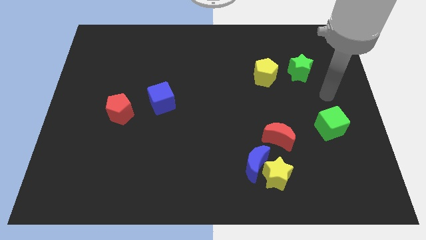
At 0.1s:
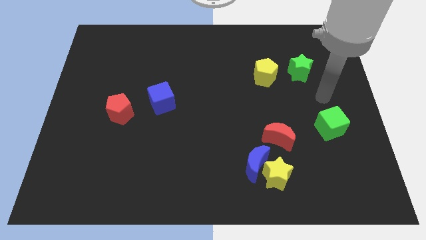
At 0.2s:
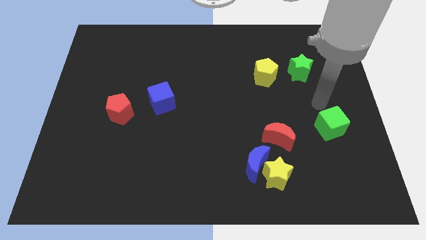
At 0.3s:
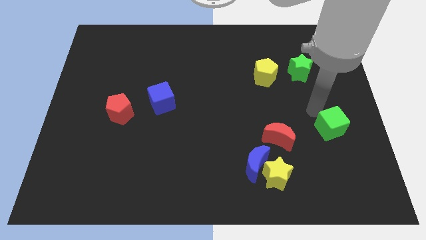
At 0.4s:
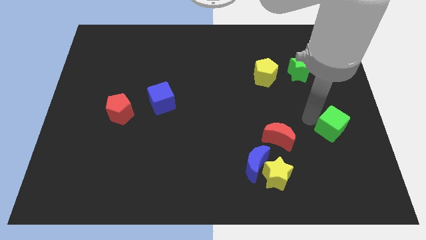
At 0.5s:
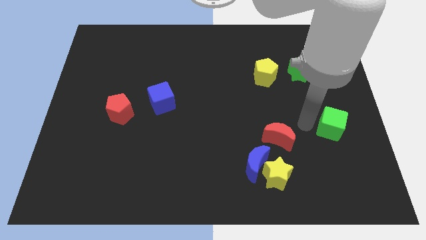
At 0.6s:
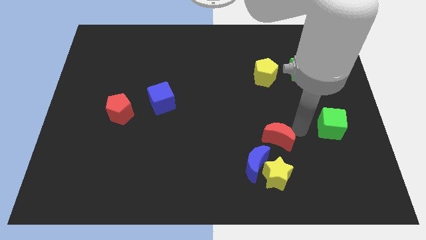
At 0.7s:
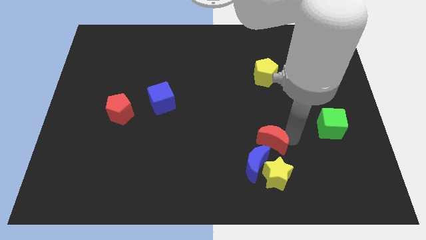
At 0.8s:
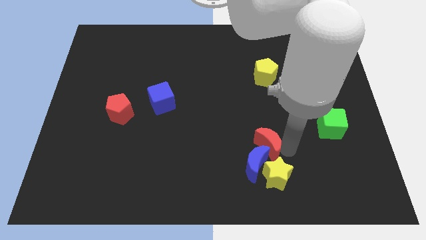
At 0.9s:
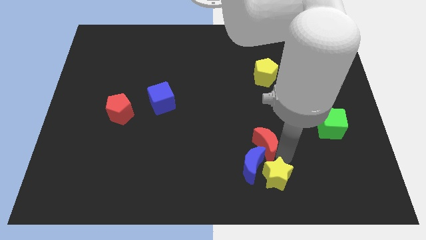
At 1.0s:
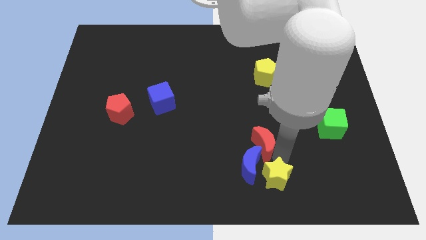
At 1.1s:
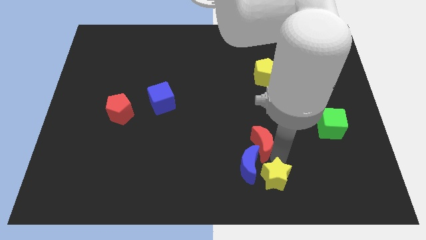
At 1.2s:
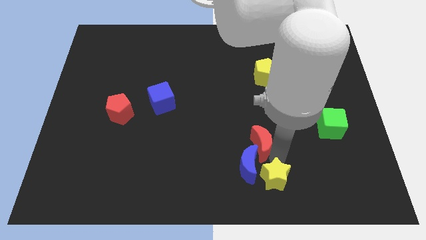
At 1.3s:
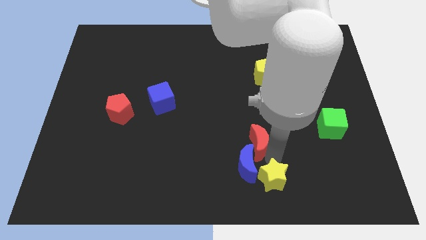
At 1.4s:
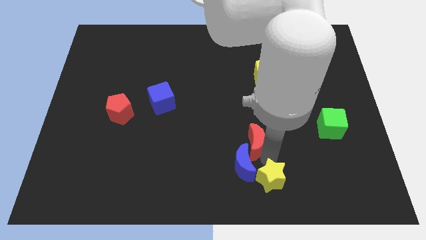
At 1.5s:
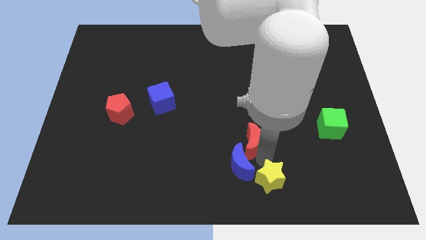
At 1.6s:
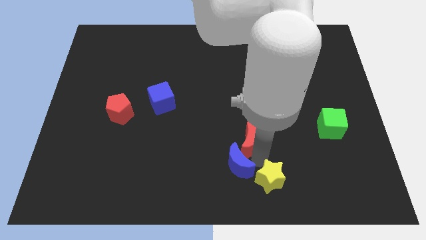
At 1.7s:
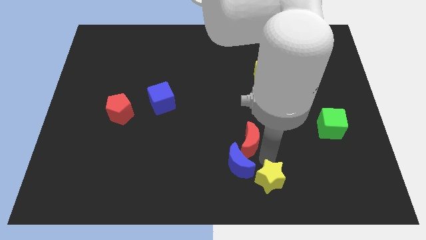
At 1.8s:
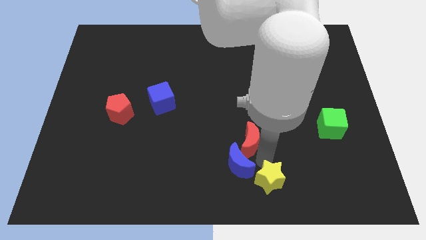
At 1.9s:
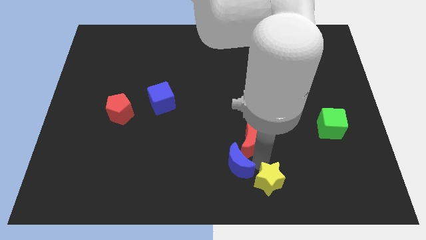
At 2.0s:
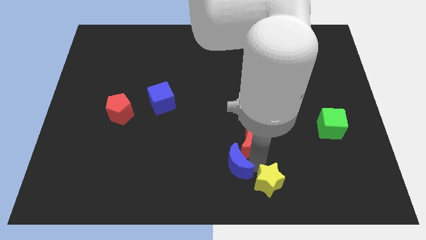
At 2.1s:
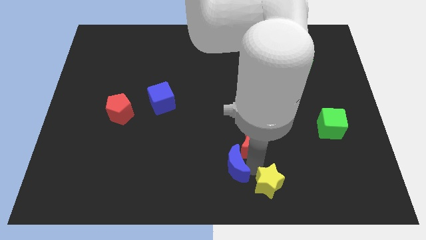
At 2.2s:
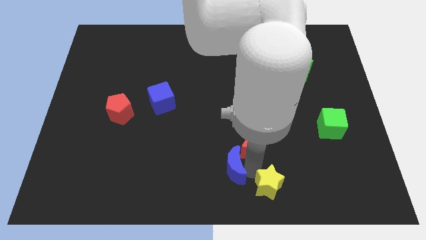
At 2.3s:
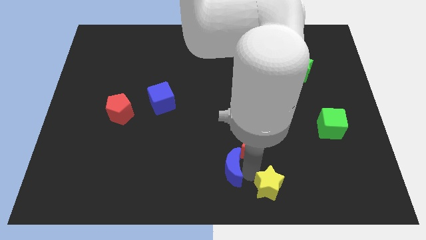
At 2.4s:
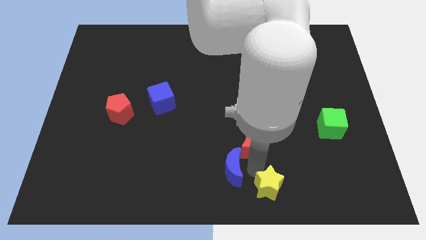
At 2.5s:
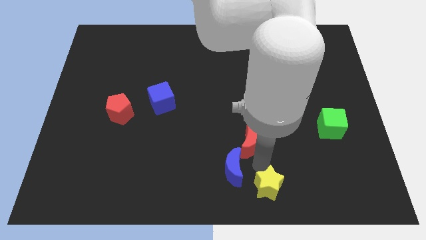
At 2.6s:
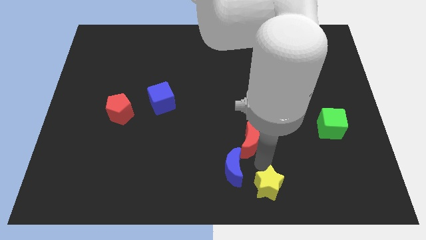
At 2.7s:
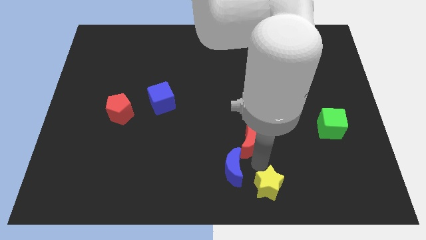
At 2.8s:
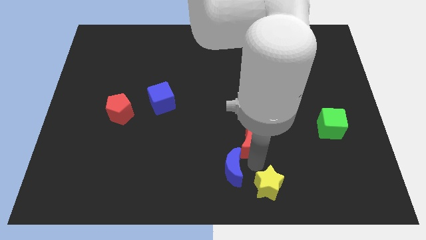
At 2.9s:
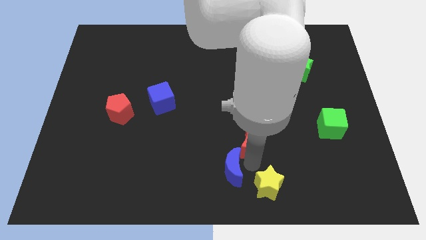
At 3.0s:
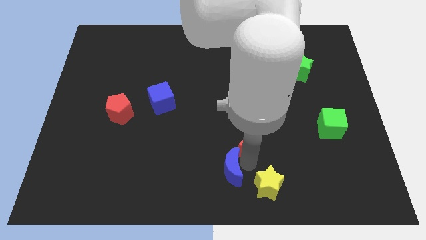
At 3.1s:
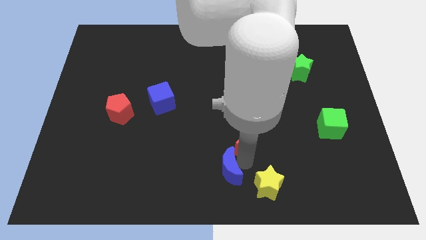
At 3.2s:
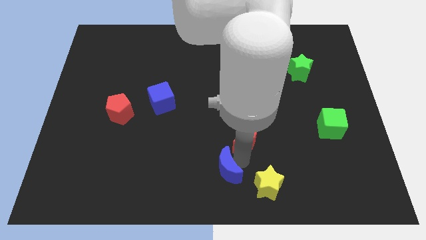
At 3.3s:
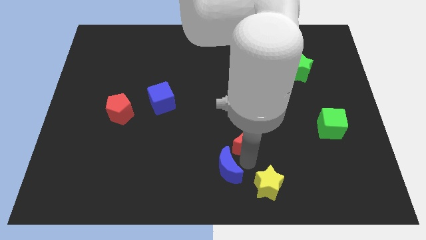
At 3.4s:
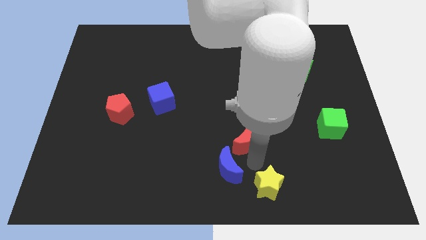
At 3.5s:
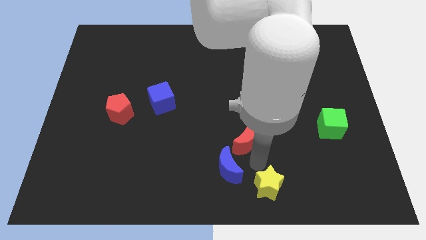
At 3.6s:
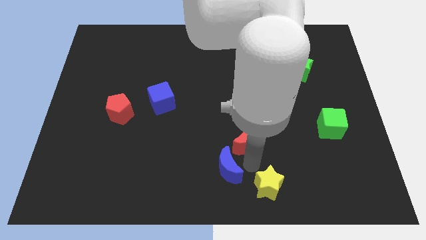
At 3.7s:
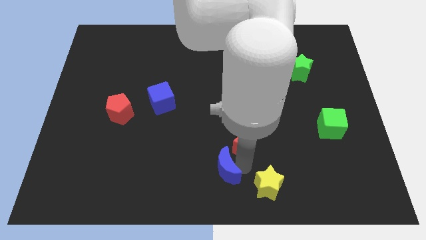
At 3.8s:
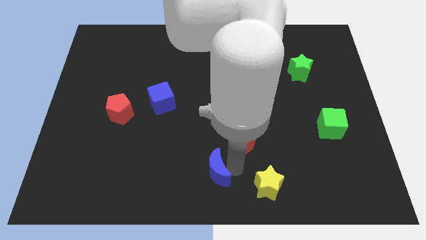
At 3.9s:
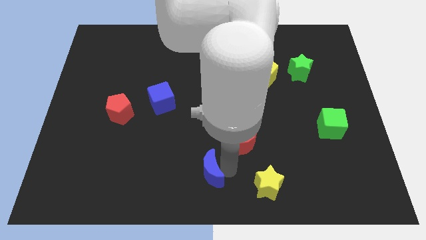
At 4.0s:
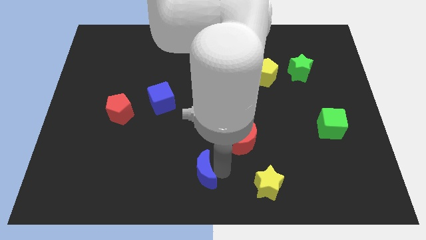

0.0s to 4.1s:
pull the blue moon apart from the yellow star and red moon

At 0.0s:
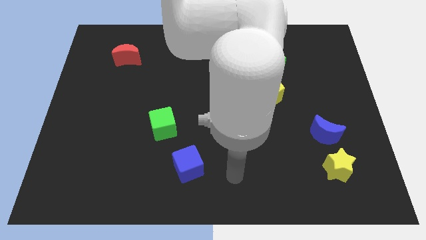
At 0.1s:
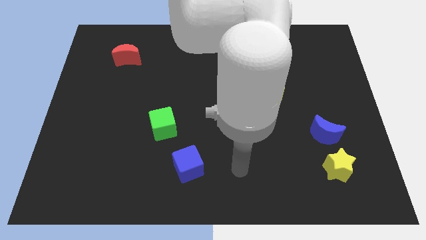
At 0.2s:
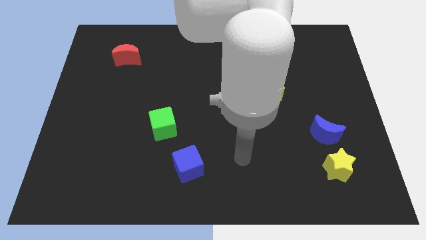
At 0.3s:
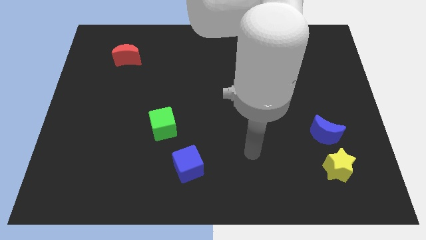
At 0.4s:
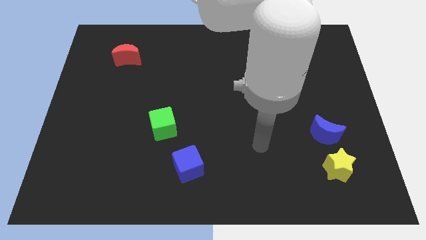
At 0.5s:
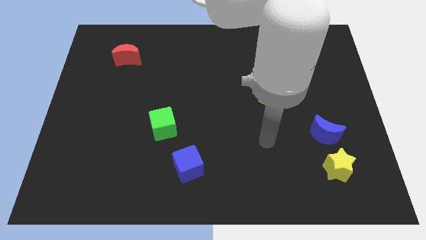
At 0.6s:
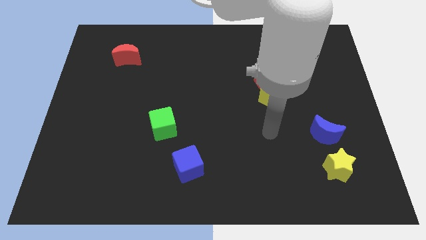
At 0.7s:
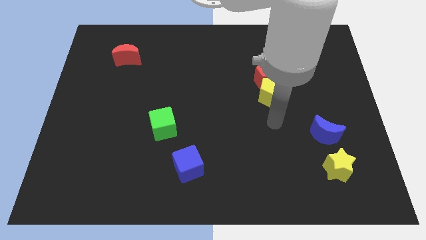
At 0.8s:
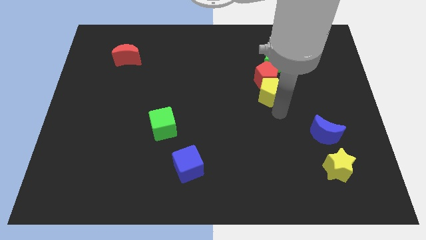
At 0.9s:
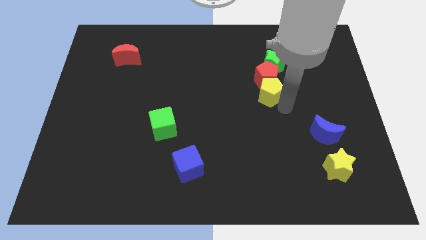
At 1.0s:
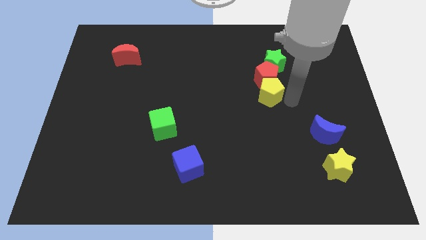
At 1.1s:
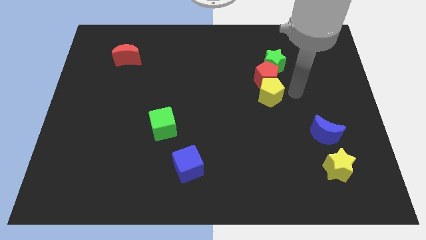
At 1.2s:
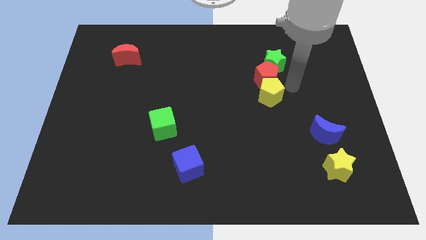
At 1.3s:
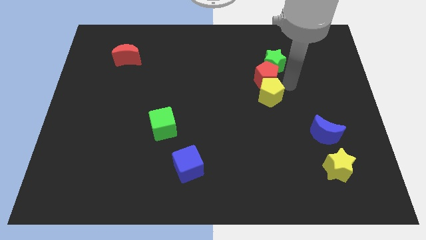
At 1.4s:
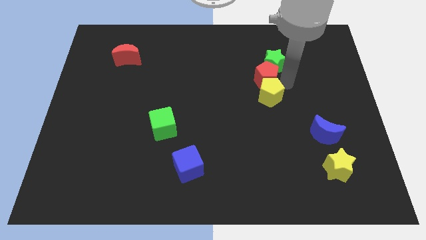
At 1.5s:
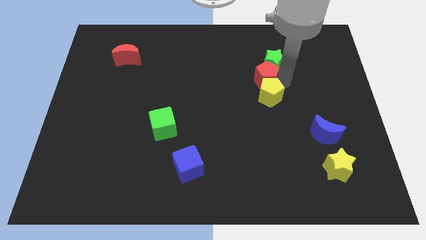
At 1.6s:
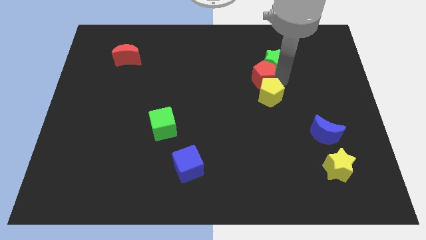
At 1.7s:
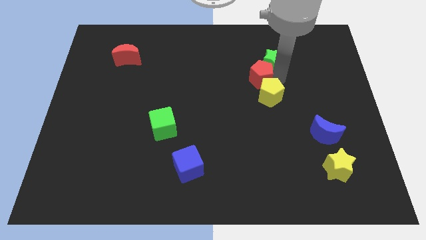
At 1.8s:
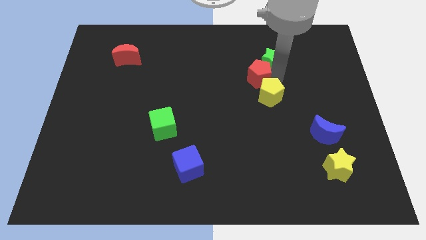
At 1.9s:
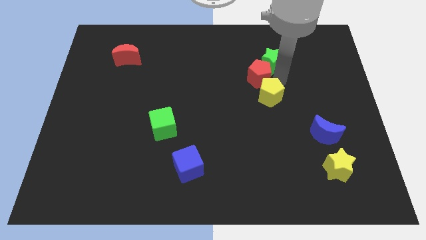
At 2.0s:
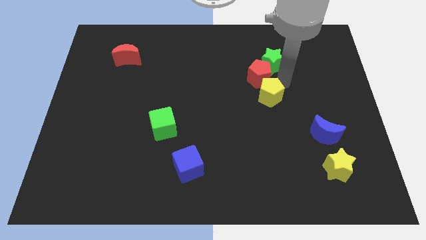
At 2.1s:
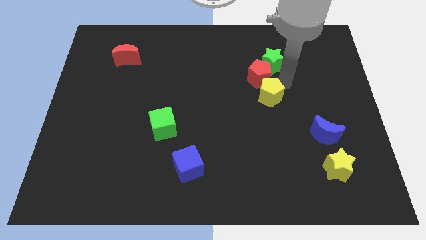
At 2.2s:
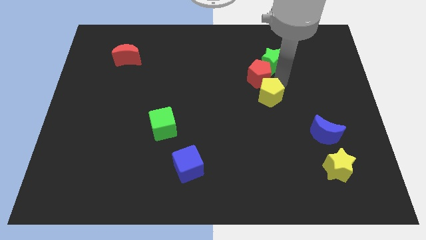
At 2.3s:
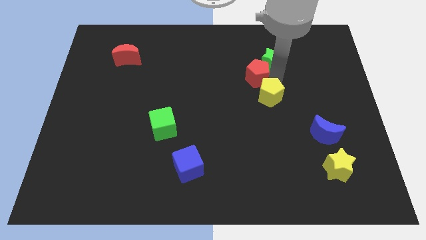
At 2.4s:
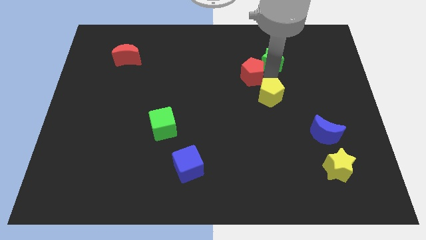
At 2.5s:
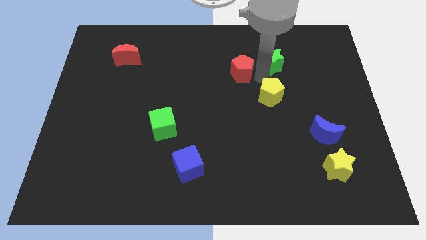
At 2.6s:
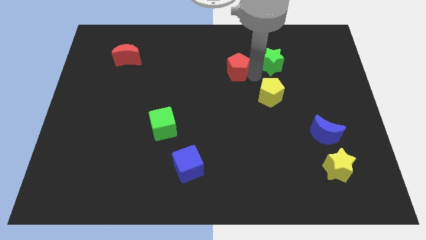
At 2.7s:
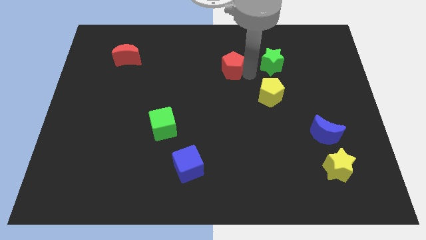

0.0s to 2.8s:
move the red pentagon away from the green star and yellow pentagon

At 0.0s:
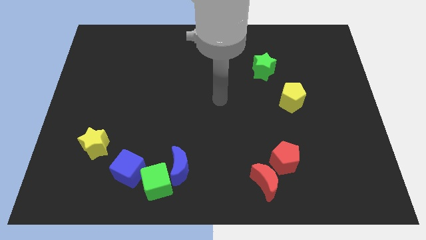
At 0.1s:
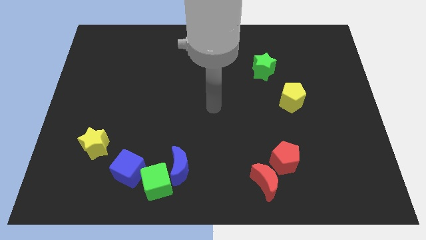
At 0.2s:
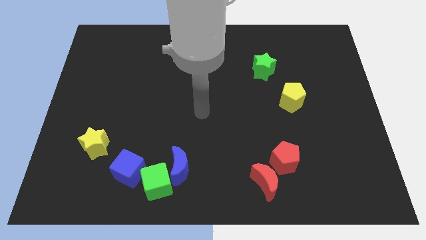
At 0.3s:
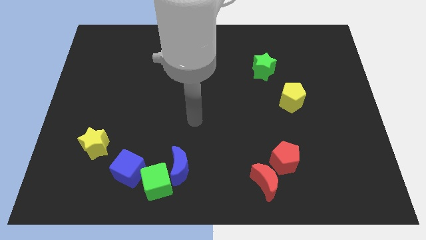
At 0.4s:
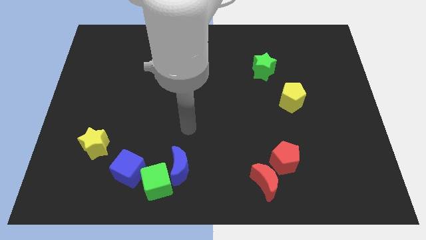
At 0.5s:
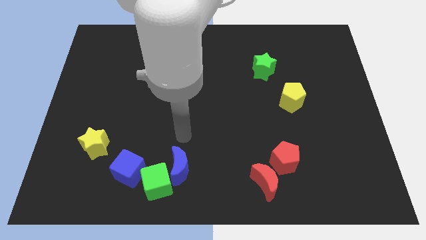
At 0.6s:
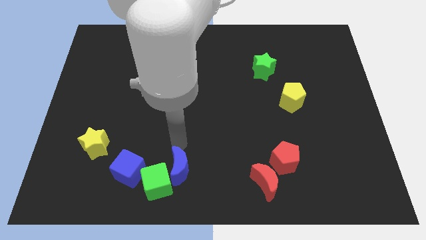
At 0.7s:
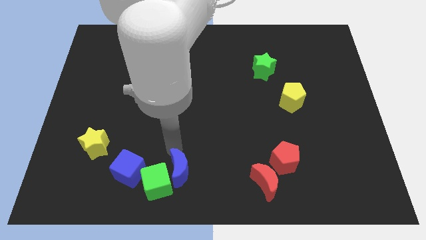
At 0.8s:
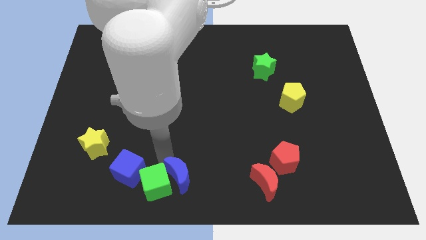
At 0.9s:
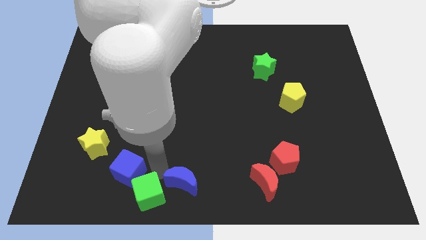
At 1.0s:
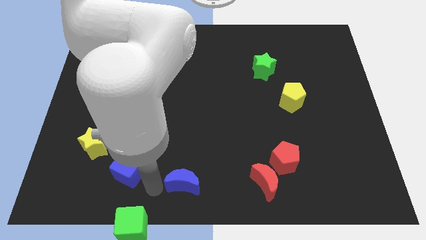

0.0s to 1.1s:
pull the blue moon apart from the green cube

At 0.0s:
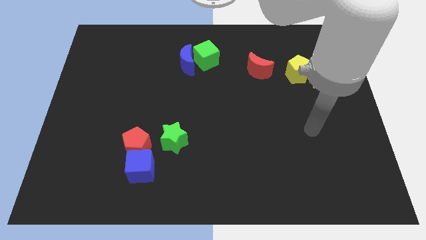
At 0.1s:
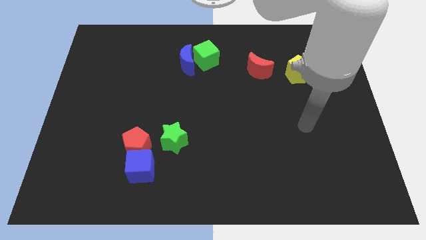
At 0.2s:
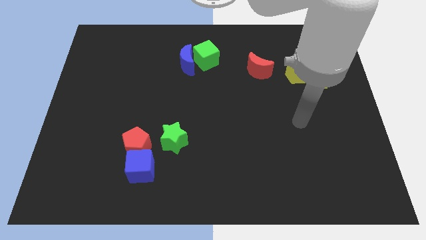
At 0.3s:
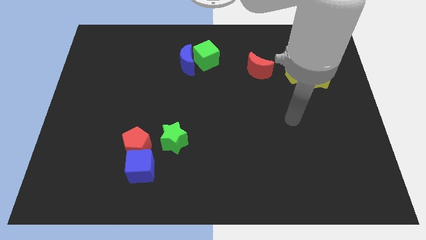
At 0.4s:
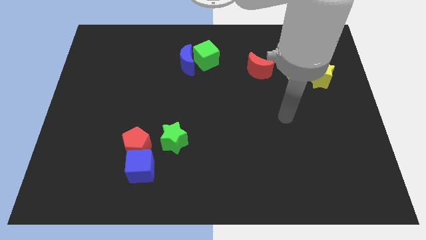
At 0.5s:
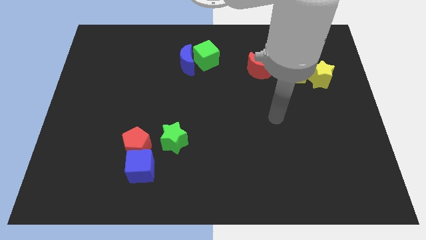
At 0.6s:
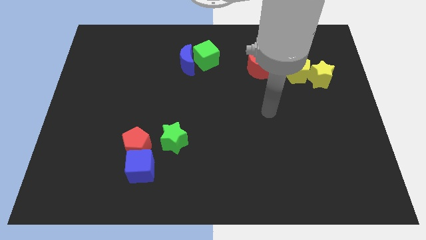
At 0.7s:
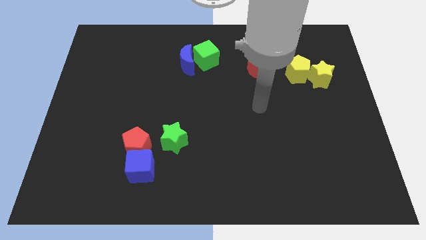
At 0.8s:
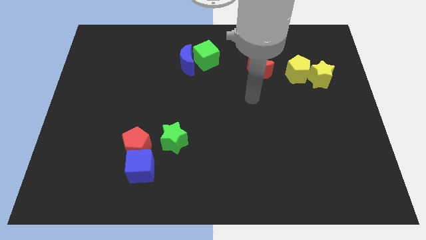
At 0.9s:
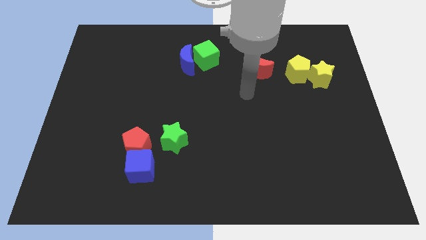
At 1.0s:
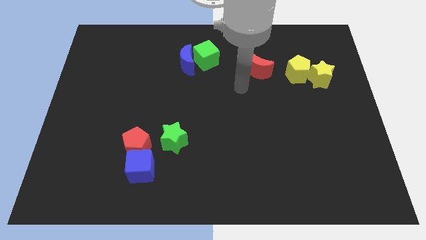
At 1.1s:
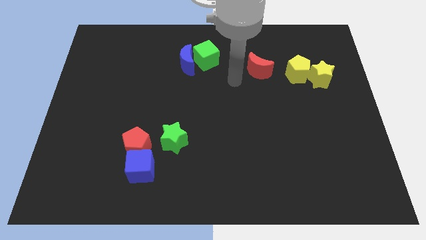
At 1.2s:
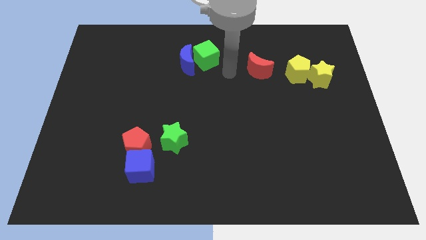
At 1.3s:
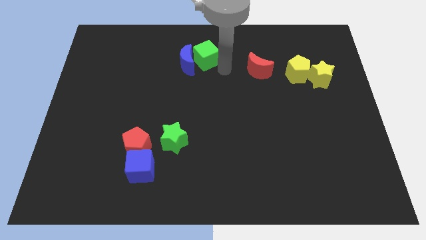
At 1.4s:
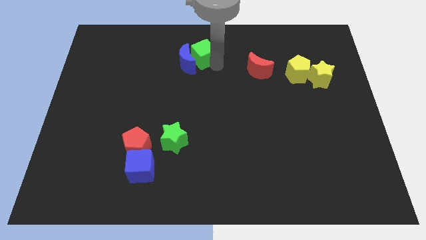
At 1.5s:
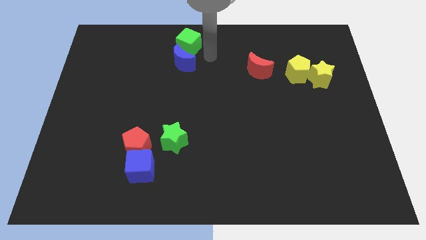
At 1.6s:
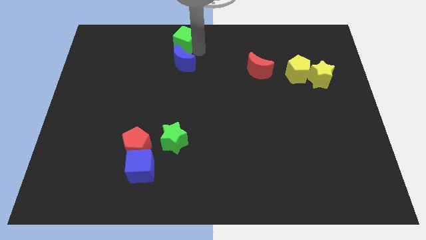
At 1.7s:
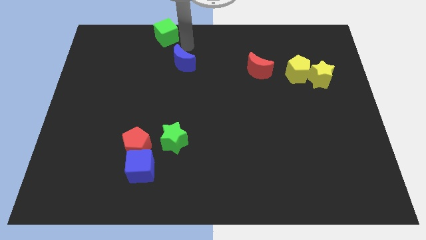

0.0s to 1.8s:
move the blue moon away from the green cube
